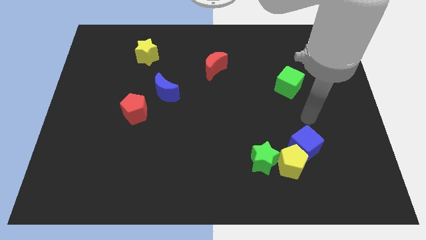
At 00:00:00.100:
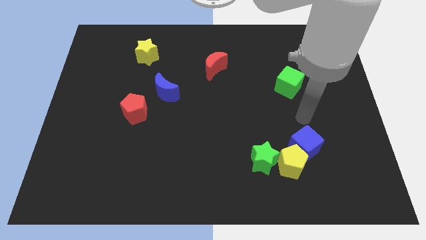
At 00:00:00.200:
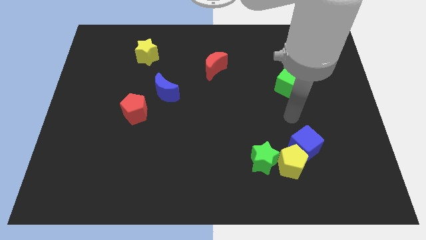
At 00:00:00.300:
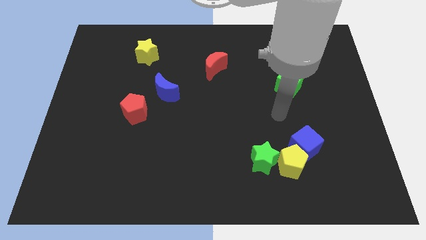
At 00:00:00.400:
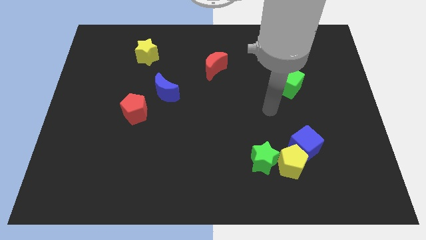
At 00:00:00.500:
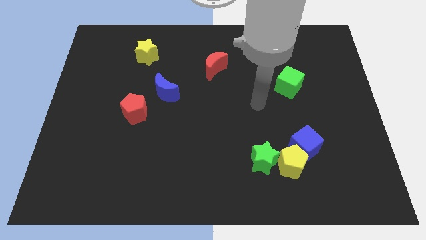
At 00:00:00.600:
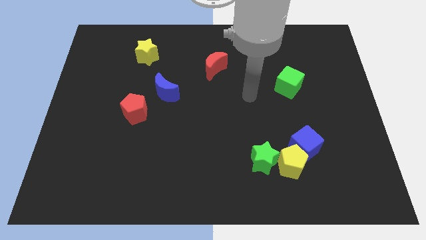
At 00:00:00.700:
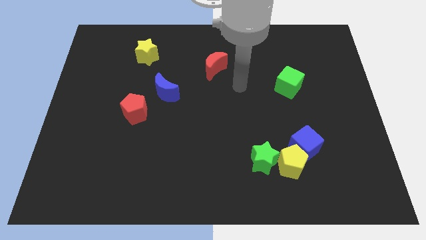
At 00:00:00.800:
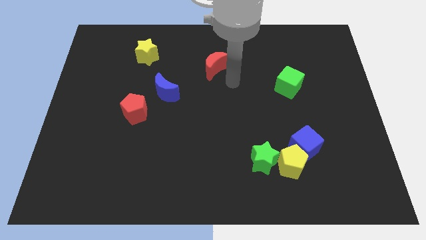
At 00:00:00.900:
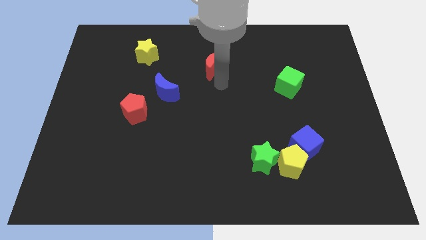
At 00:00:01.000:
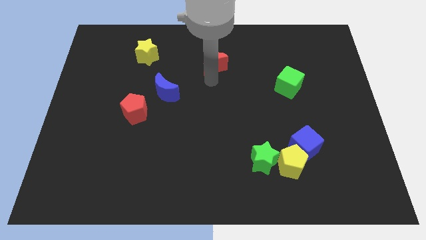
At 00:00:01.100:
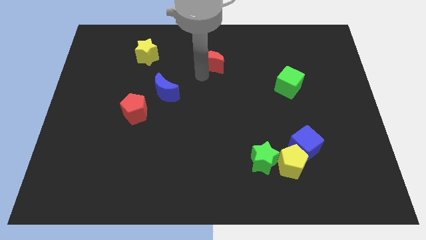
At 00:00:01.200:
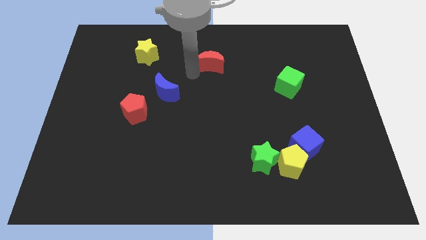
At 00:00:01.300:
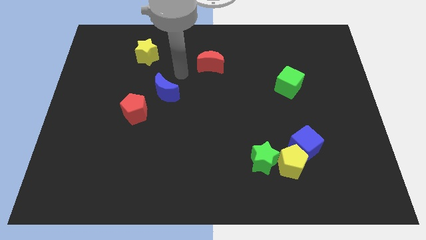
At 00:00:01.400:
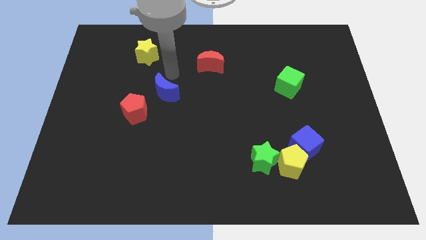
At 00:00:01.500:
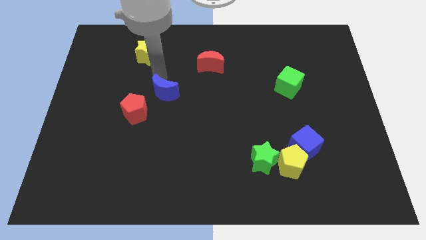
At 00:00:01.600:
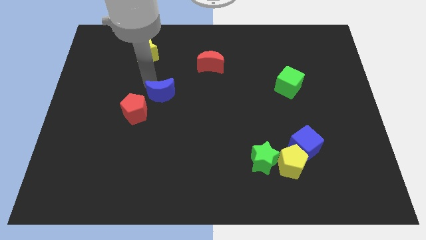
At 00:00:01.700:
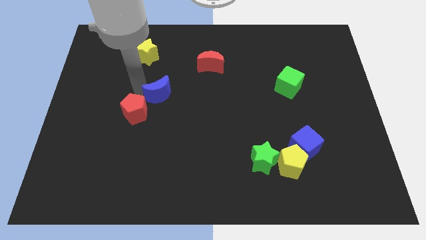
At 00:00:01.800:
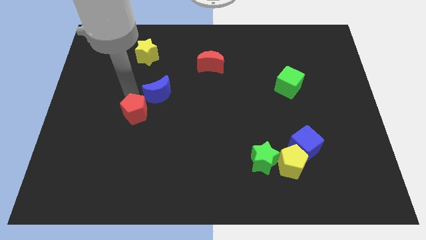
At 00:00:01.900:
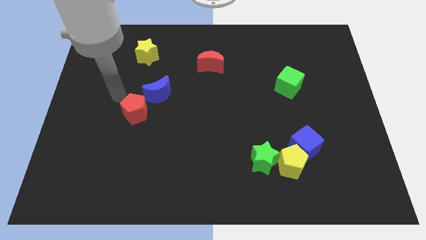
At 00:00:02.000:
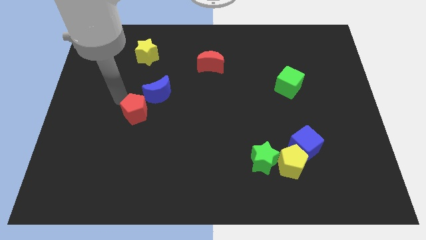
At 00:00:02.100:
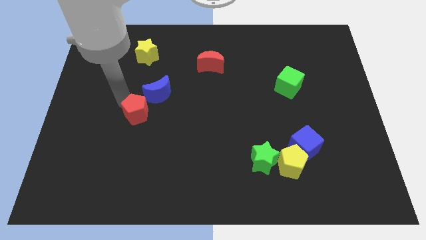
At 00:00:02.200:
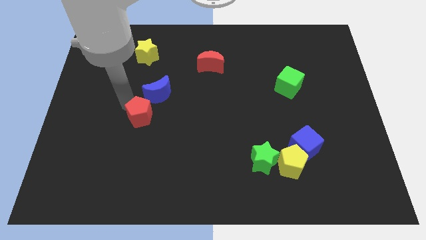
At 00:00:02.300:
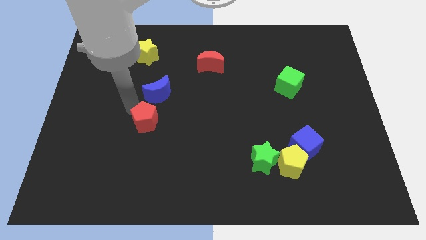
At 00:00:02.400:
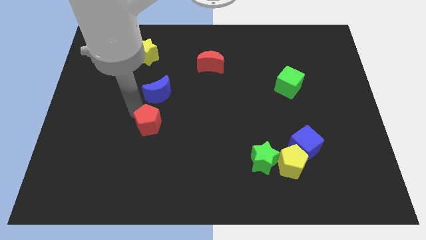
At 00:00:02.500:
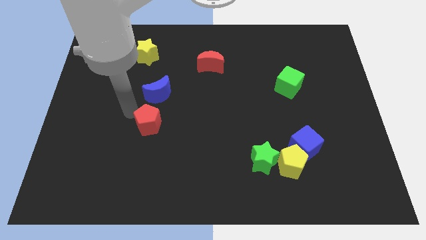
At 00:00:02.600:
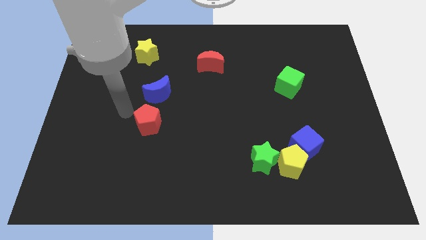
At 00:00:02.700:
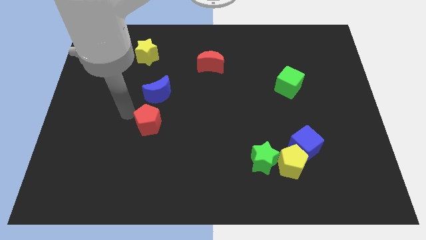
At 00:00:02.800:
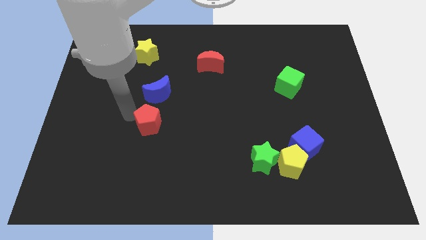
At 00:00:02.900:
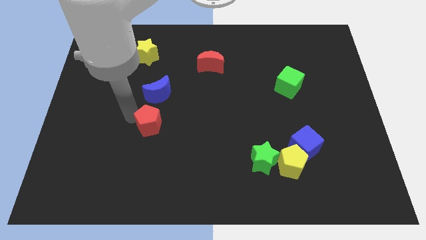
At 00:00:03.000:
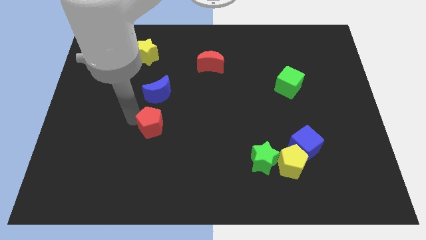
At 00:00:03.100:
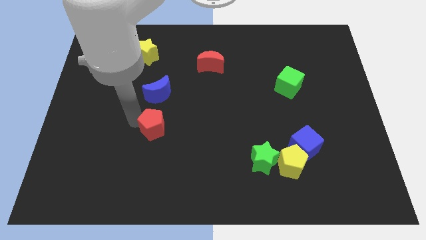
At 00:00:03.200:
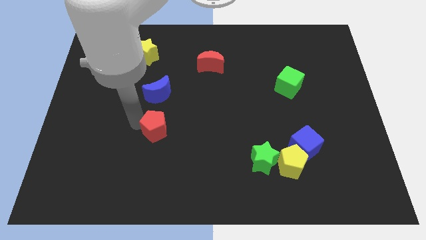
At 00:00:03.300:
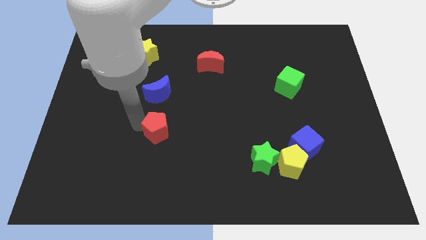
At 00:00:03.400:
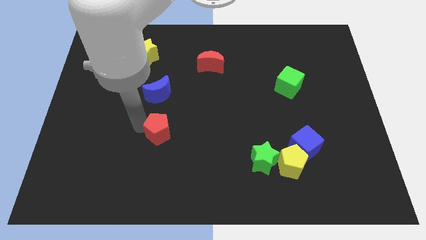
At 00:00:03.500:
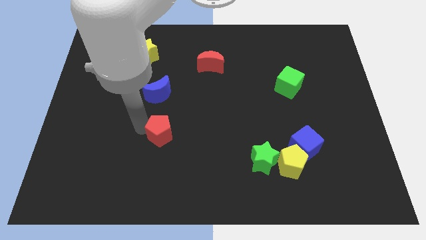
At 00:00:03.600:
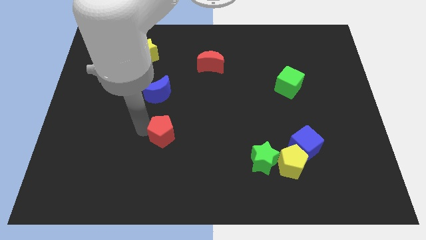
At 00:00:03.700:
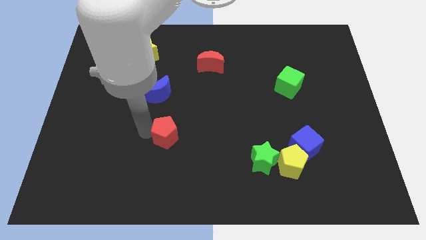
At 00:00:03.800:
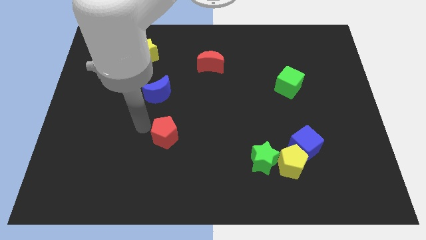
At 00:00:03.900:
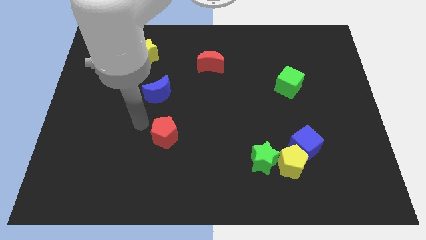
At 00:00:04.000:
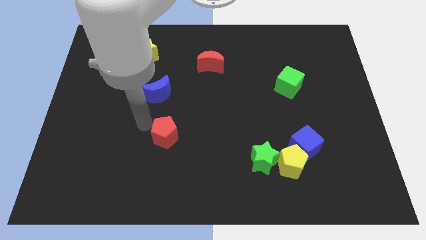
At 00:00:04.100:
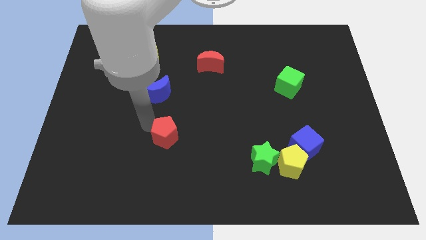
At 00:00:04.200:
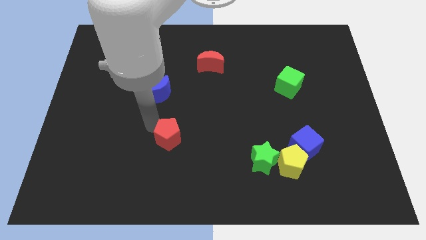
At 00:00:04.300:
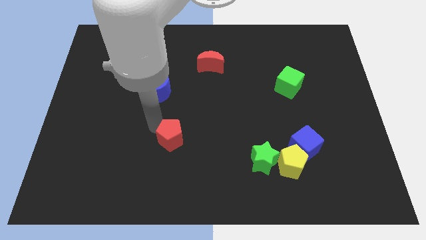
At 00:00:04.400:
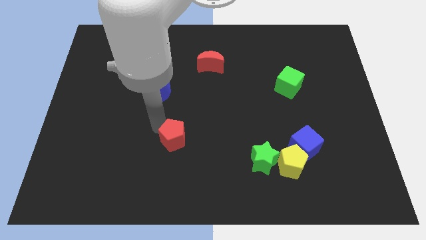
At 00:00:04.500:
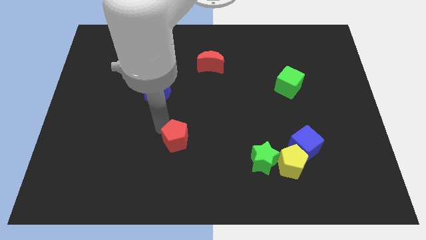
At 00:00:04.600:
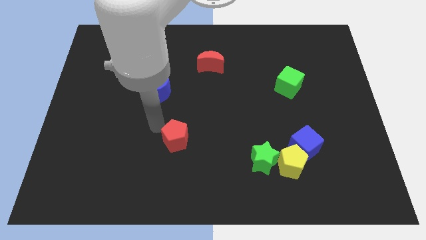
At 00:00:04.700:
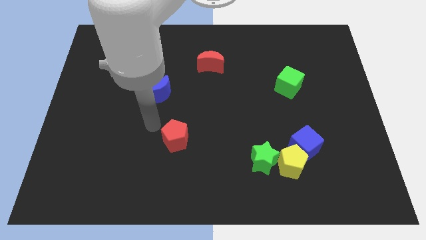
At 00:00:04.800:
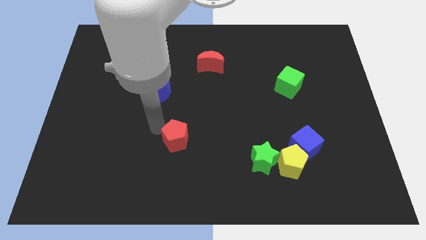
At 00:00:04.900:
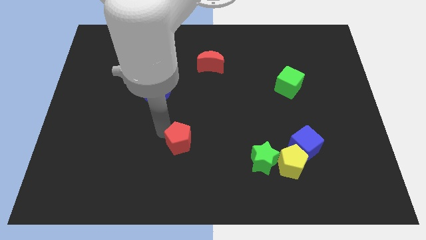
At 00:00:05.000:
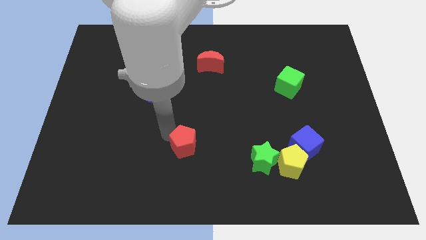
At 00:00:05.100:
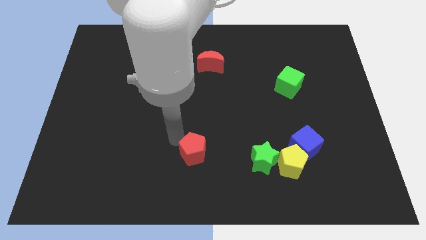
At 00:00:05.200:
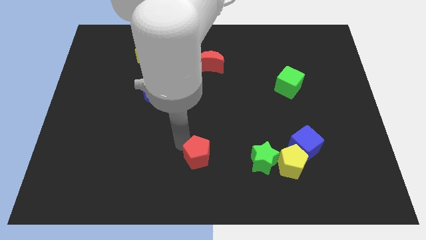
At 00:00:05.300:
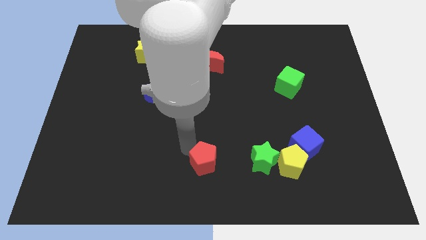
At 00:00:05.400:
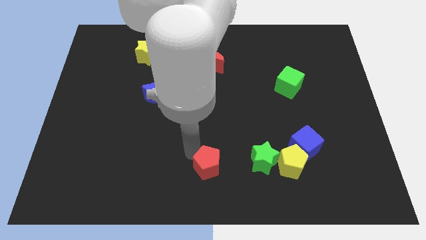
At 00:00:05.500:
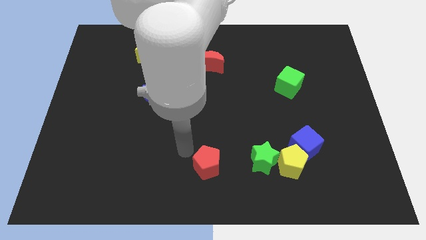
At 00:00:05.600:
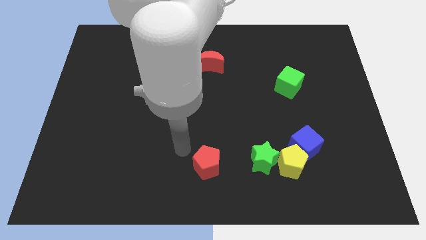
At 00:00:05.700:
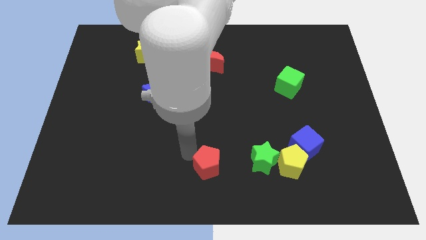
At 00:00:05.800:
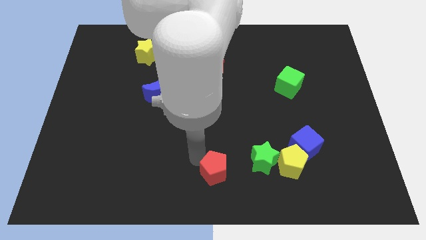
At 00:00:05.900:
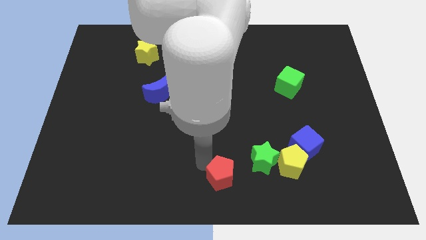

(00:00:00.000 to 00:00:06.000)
move the red pentagon diagonally down and to the left of the green star

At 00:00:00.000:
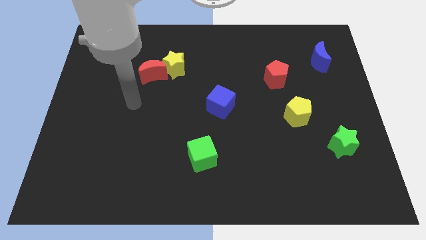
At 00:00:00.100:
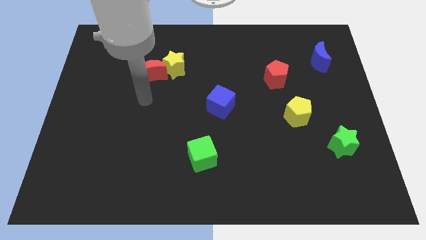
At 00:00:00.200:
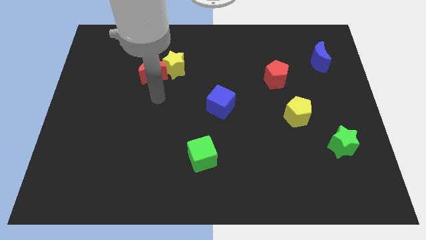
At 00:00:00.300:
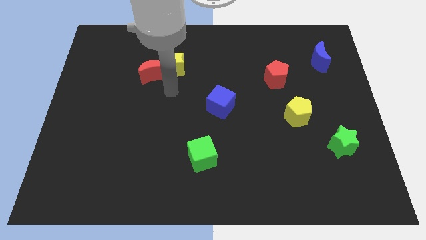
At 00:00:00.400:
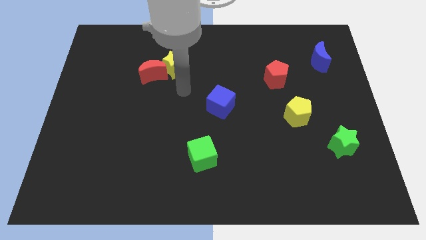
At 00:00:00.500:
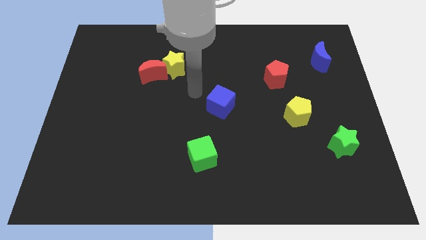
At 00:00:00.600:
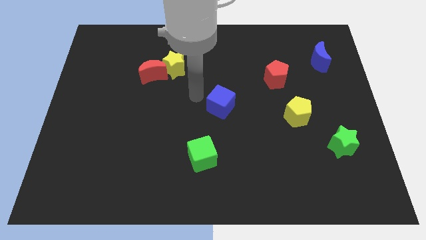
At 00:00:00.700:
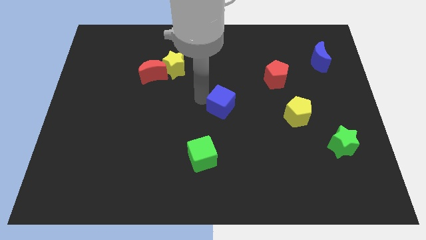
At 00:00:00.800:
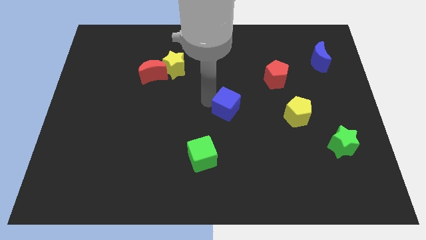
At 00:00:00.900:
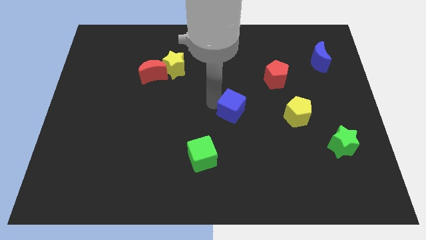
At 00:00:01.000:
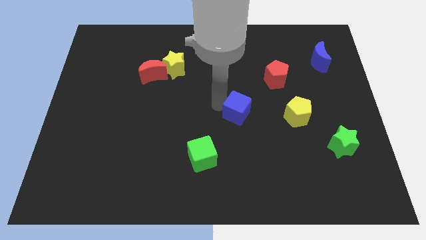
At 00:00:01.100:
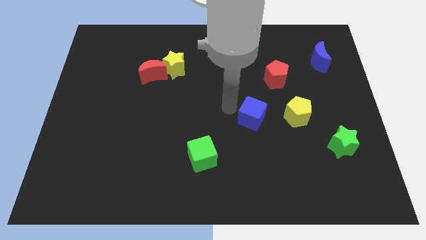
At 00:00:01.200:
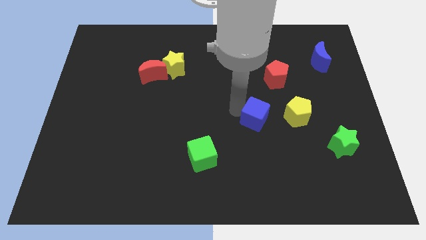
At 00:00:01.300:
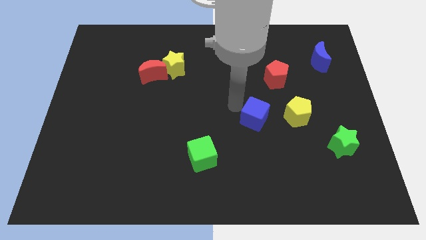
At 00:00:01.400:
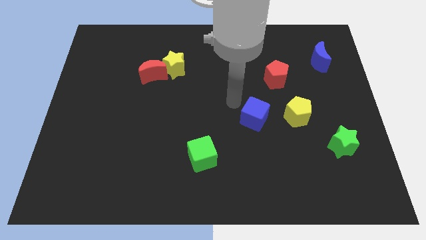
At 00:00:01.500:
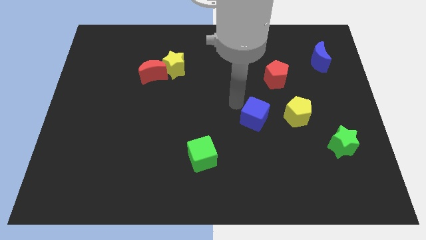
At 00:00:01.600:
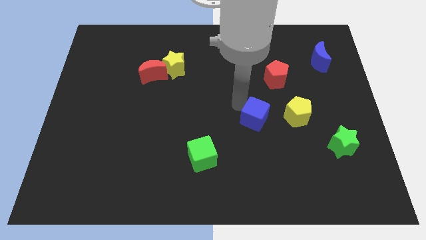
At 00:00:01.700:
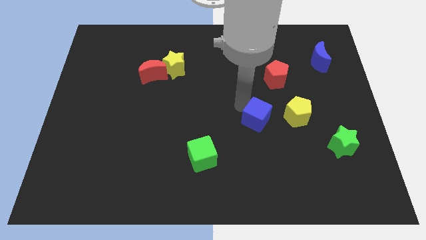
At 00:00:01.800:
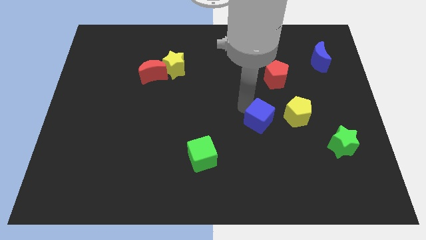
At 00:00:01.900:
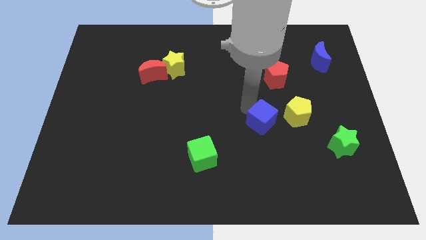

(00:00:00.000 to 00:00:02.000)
slide the blue cube to the bottom left side of the yellow pentagon
